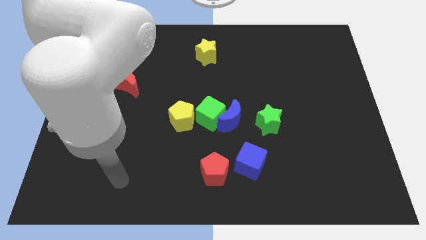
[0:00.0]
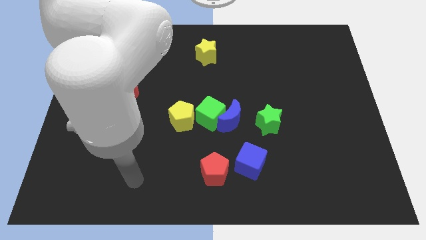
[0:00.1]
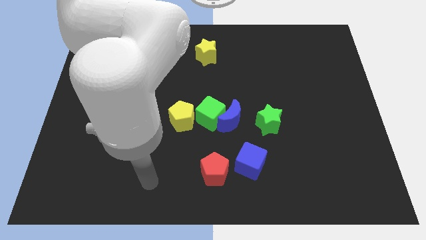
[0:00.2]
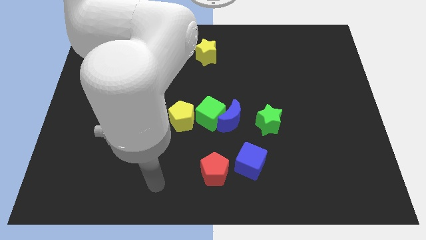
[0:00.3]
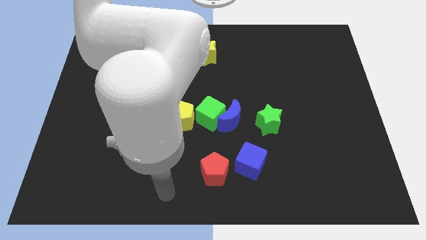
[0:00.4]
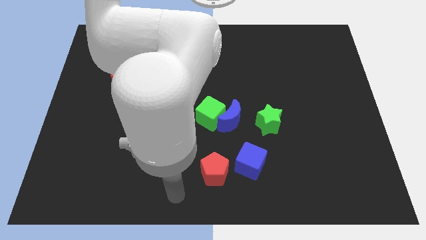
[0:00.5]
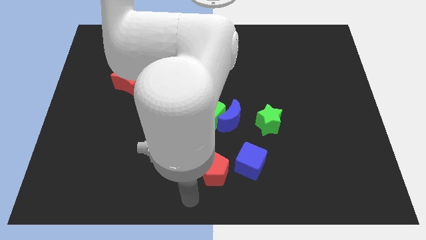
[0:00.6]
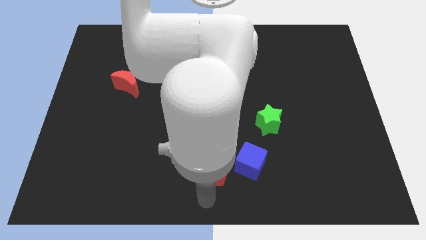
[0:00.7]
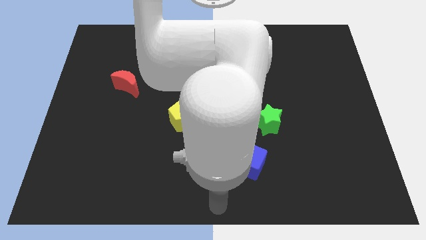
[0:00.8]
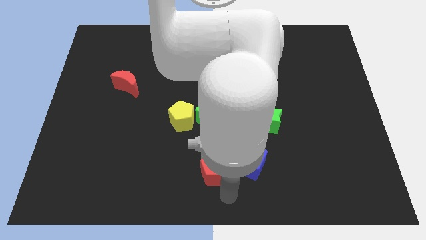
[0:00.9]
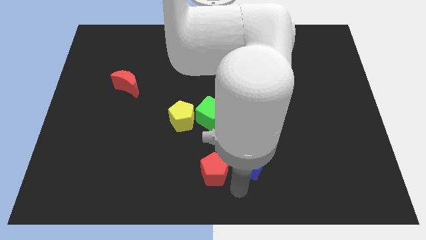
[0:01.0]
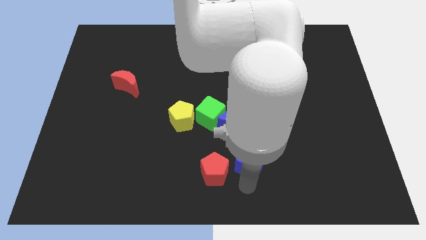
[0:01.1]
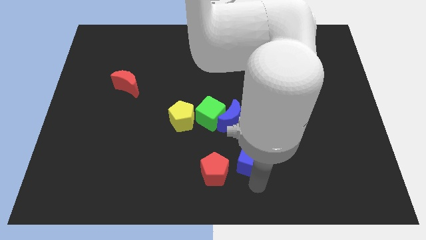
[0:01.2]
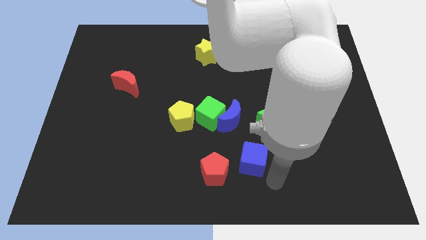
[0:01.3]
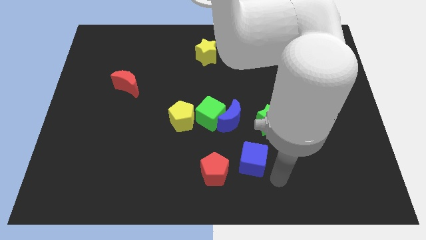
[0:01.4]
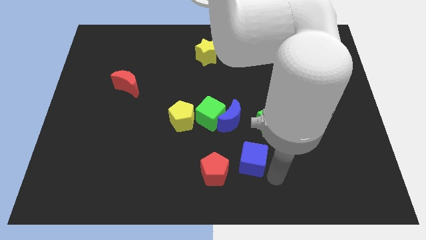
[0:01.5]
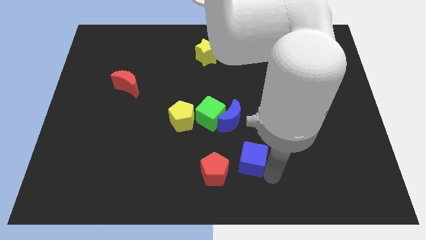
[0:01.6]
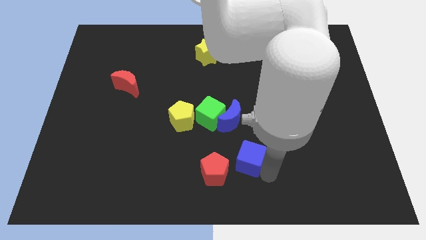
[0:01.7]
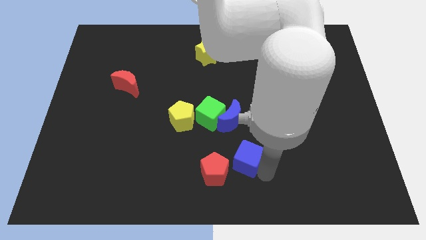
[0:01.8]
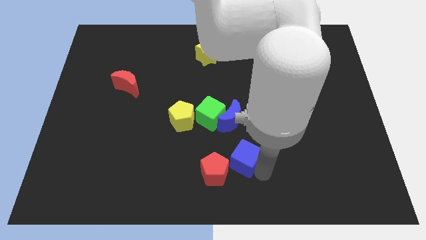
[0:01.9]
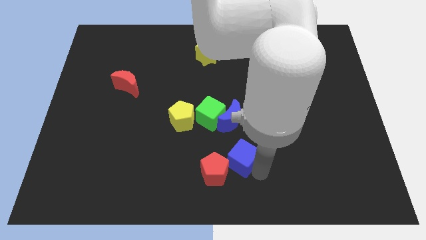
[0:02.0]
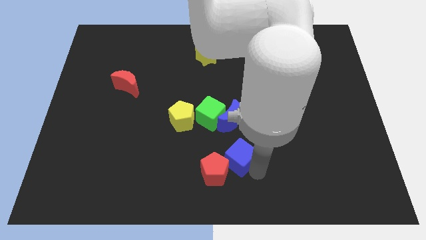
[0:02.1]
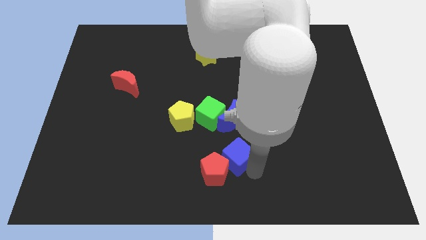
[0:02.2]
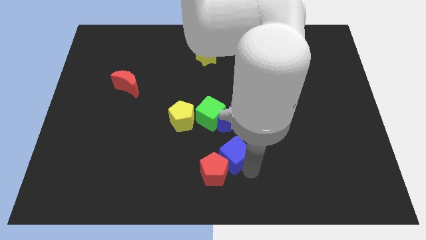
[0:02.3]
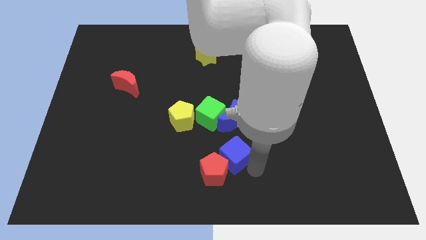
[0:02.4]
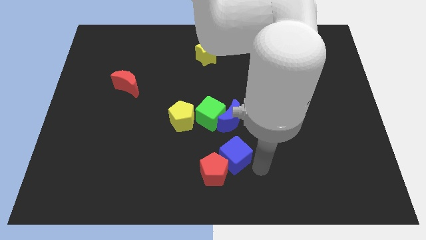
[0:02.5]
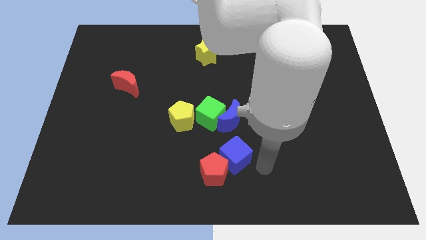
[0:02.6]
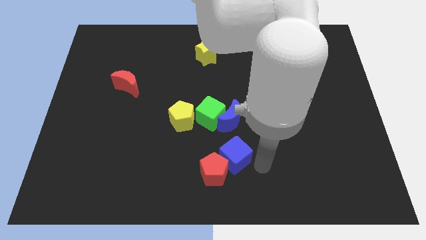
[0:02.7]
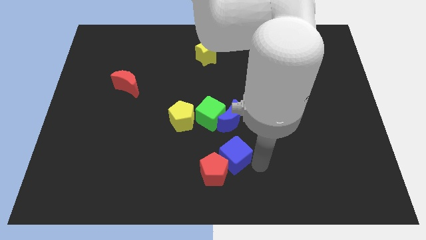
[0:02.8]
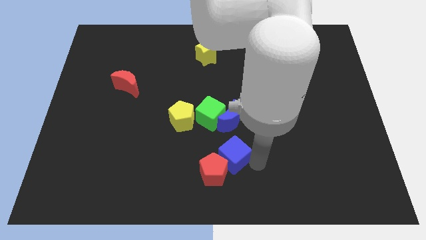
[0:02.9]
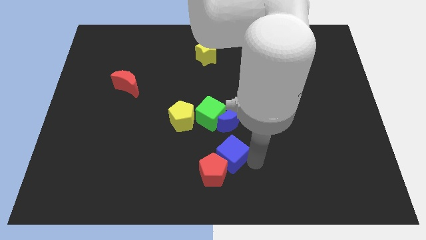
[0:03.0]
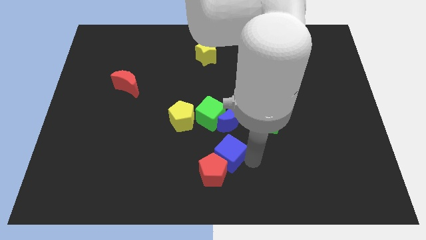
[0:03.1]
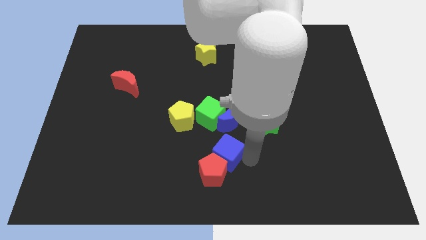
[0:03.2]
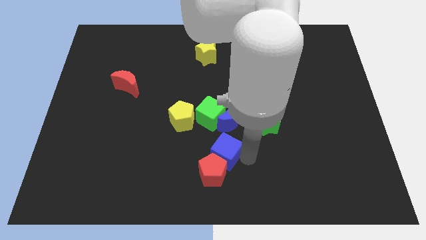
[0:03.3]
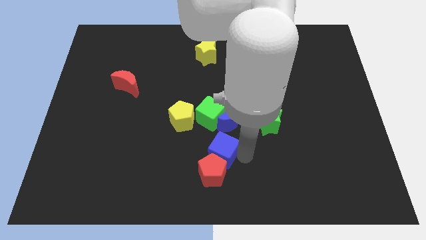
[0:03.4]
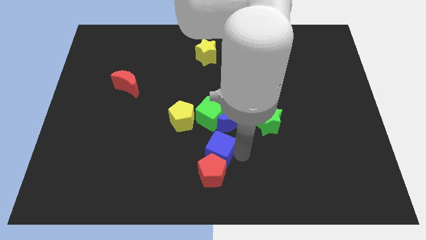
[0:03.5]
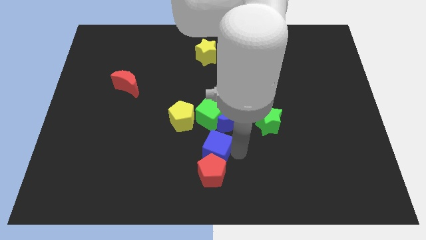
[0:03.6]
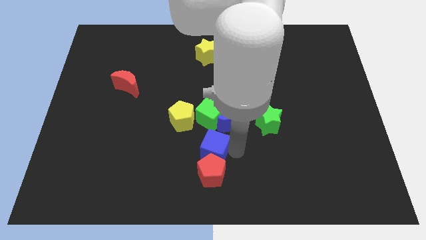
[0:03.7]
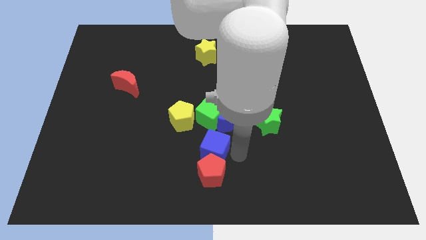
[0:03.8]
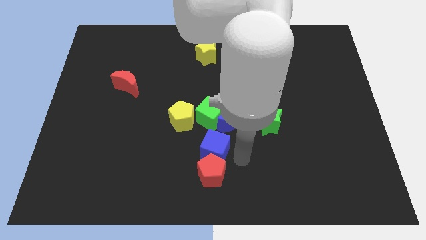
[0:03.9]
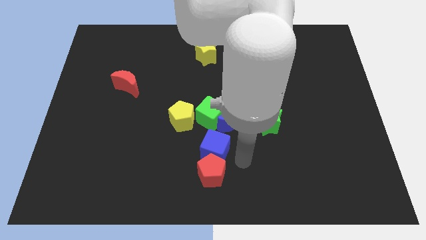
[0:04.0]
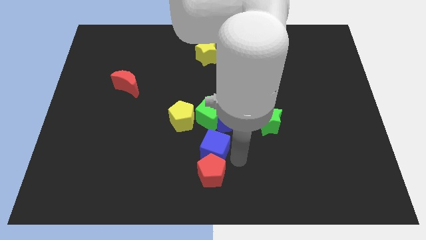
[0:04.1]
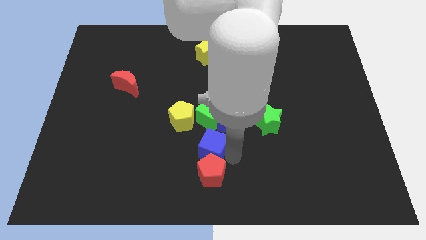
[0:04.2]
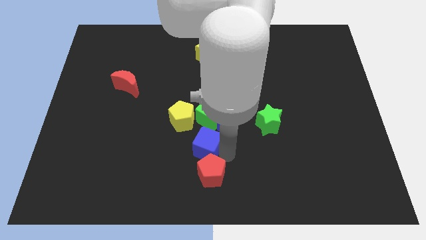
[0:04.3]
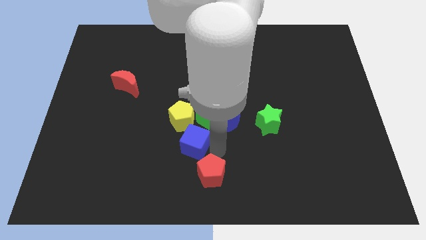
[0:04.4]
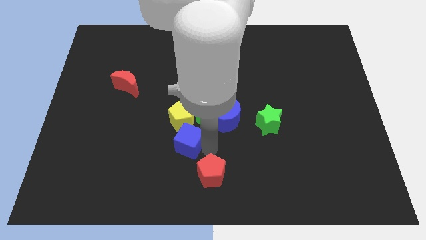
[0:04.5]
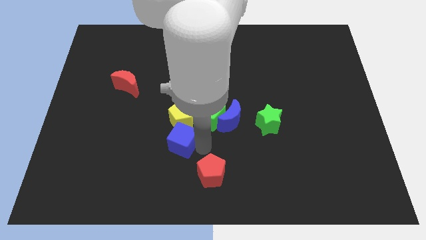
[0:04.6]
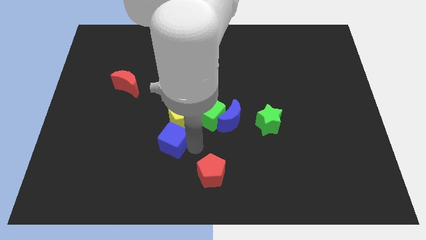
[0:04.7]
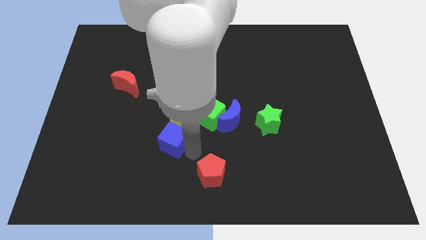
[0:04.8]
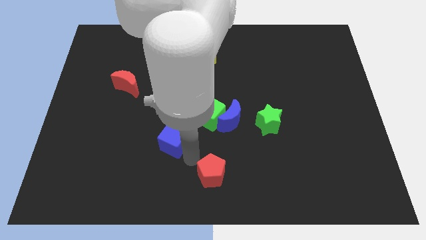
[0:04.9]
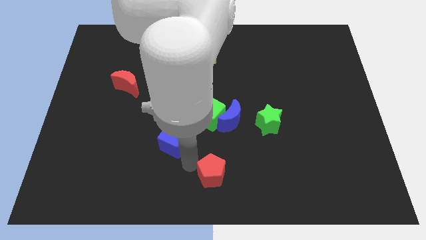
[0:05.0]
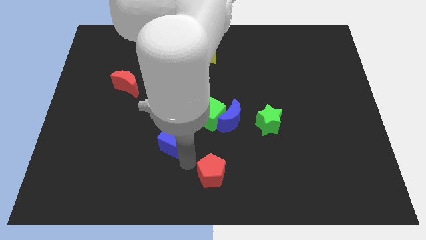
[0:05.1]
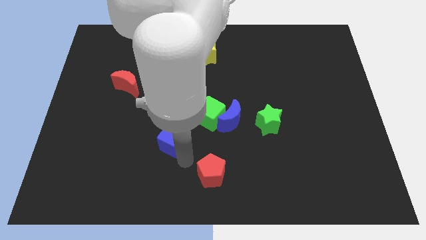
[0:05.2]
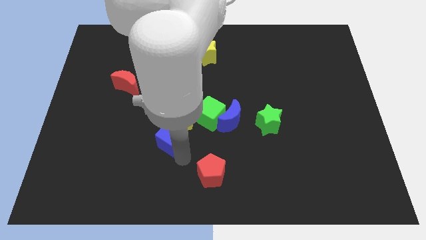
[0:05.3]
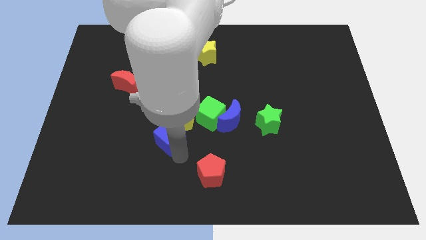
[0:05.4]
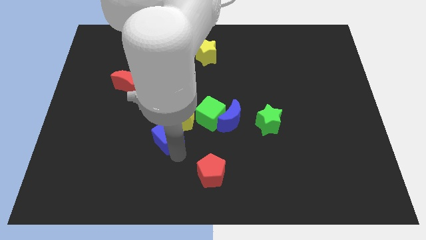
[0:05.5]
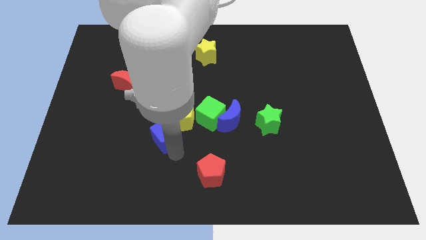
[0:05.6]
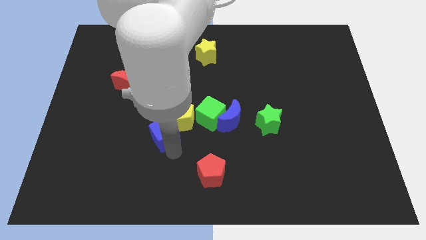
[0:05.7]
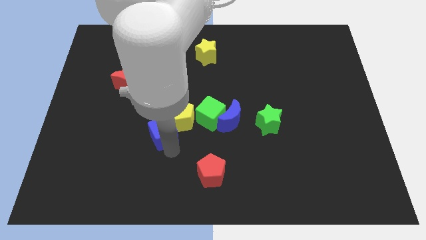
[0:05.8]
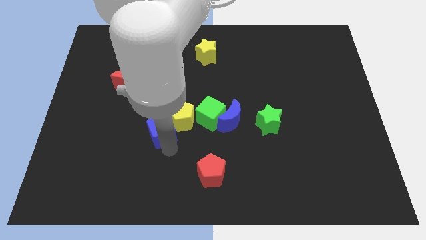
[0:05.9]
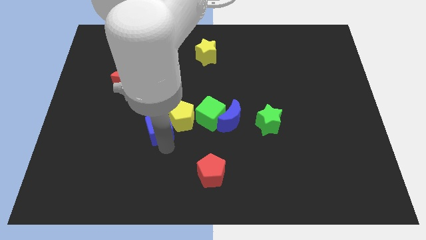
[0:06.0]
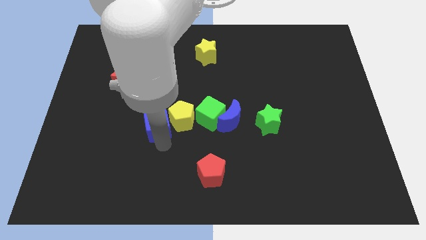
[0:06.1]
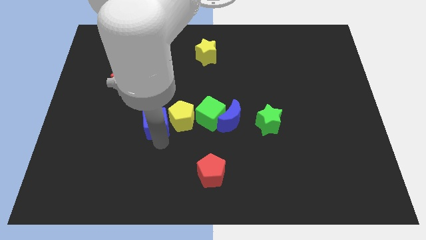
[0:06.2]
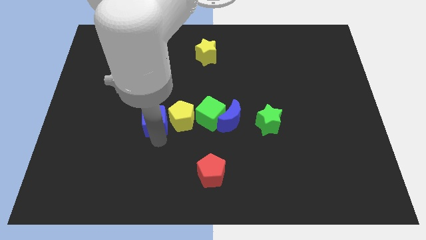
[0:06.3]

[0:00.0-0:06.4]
slide the blue cube upwards and to the left diagonally

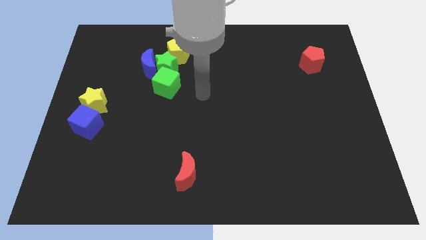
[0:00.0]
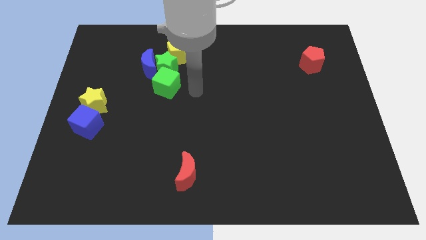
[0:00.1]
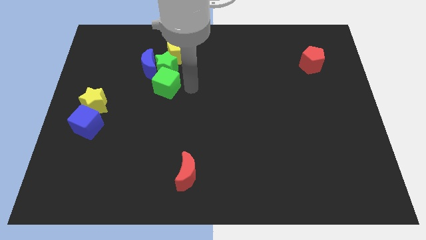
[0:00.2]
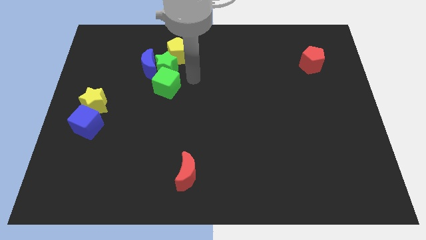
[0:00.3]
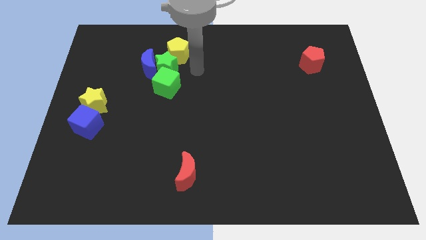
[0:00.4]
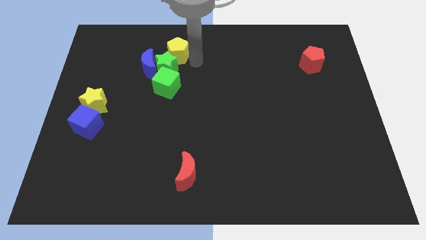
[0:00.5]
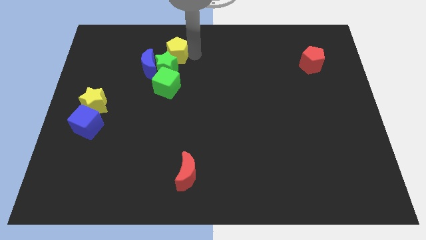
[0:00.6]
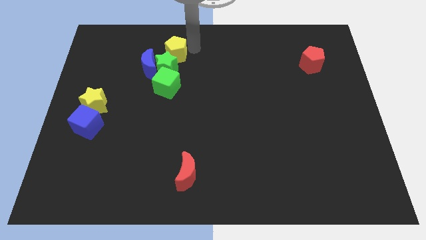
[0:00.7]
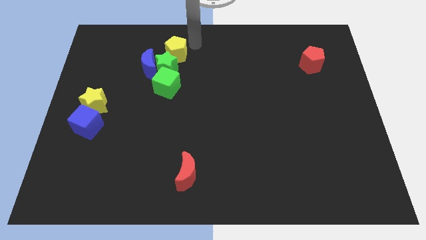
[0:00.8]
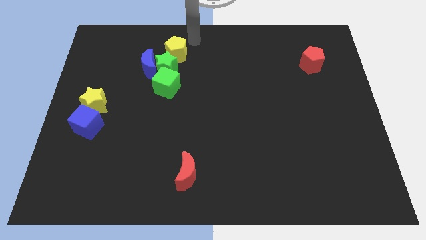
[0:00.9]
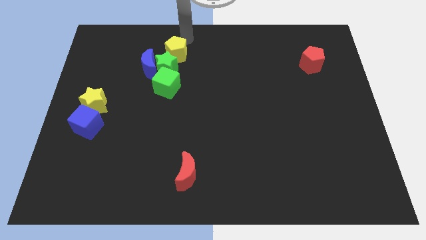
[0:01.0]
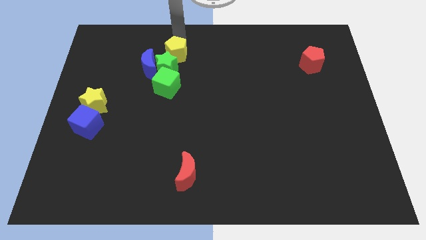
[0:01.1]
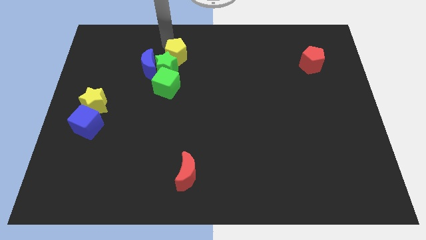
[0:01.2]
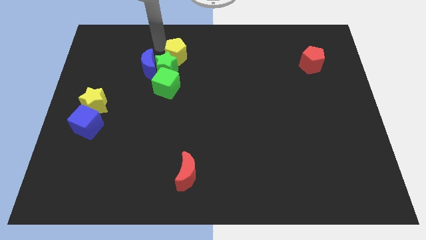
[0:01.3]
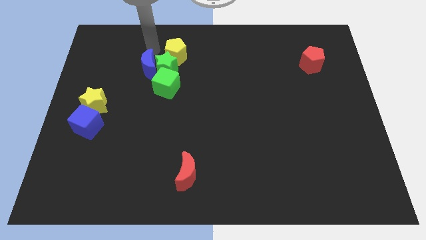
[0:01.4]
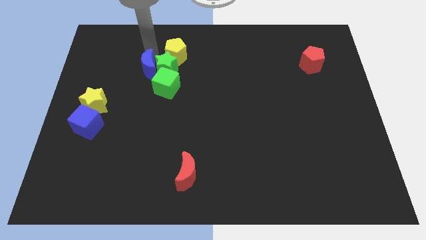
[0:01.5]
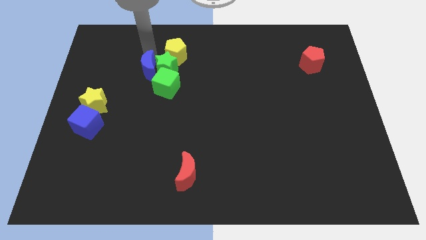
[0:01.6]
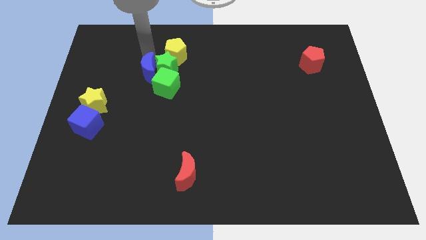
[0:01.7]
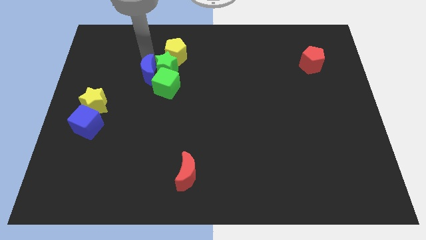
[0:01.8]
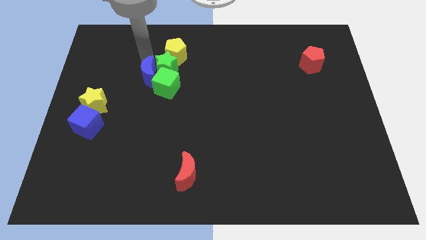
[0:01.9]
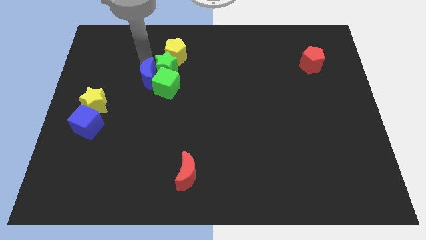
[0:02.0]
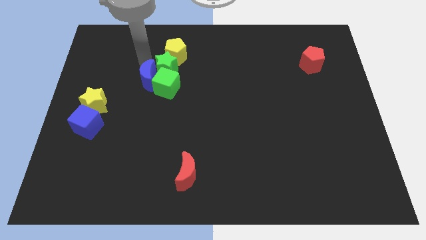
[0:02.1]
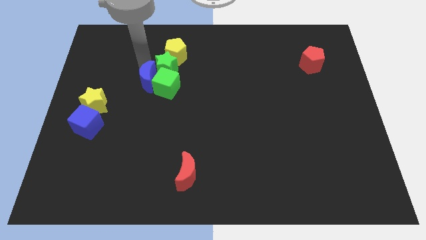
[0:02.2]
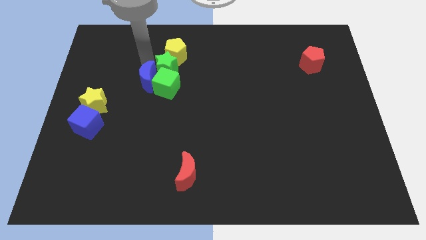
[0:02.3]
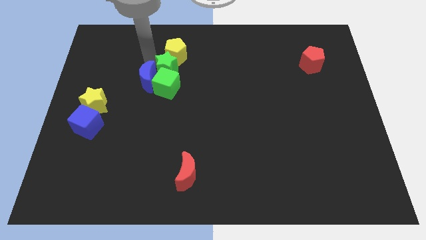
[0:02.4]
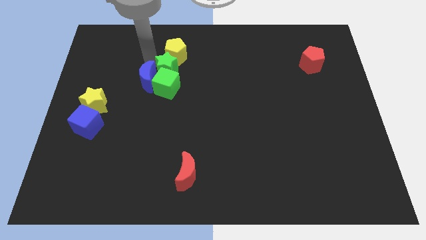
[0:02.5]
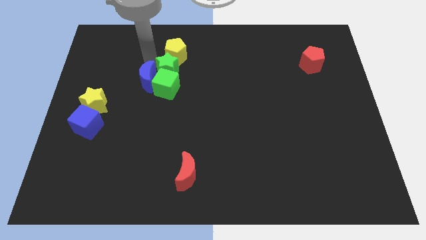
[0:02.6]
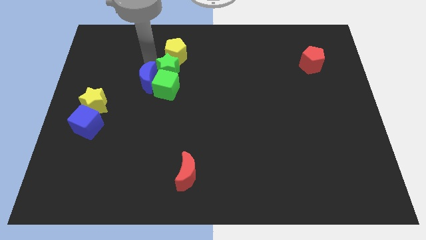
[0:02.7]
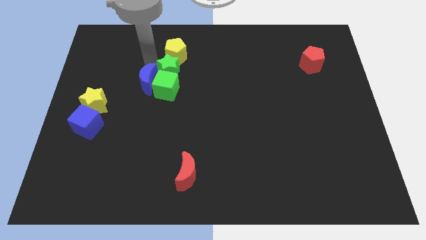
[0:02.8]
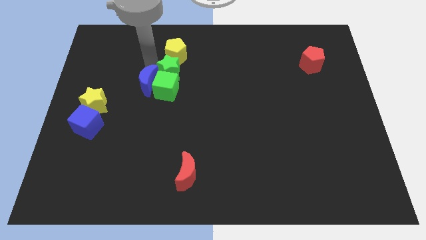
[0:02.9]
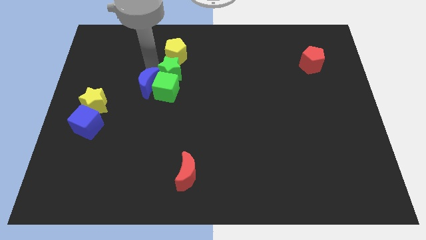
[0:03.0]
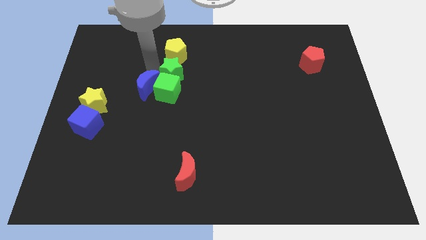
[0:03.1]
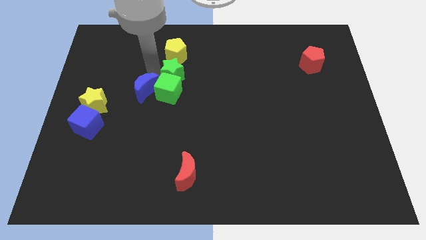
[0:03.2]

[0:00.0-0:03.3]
slide the blue moon downwards a little bit
